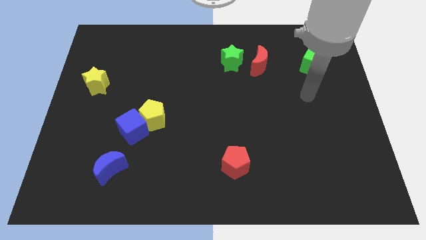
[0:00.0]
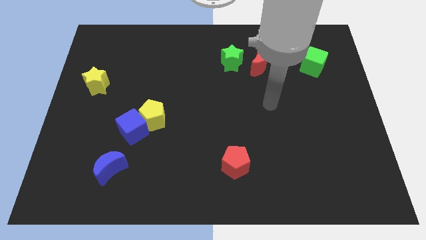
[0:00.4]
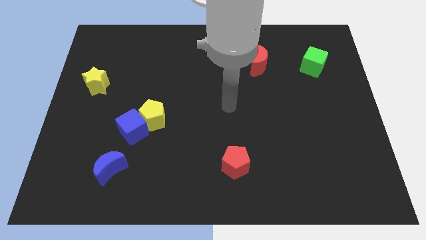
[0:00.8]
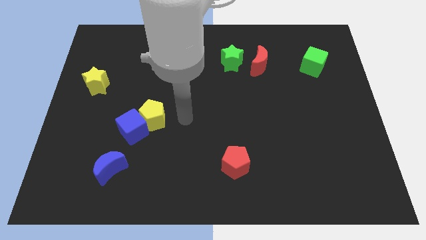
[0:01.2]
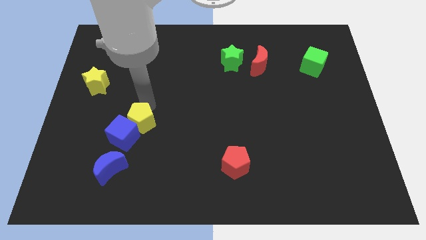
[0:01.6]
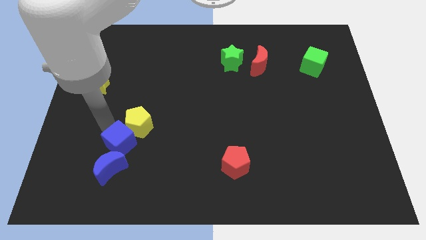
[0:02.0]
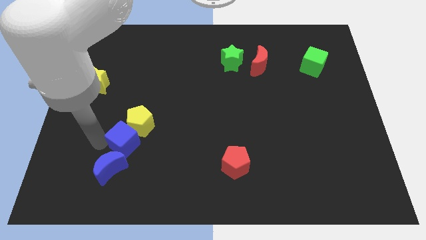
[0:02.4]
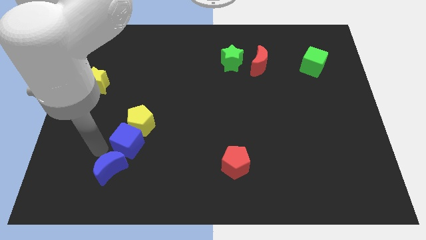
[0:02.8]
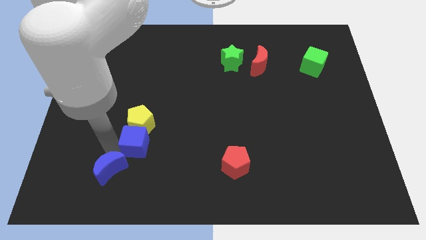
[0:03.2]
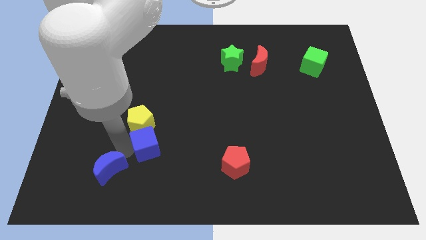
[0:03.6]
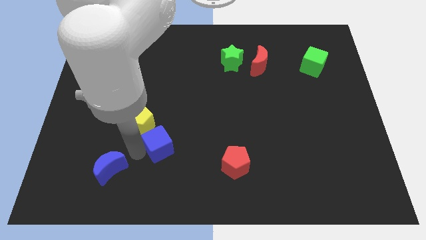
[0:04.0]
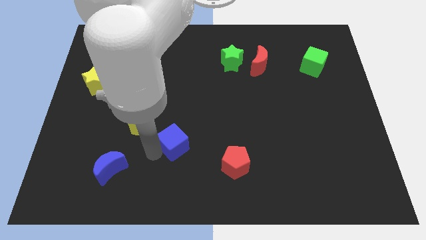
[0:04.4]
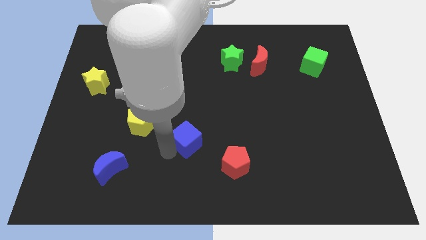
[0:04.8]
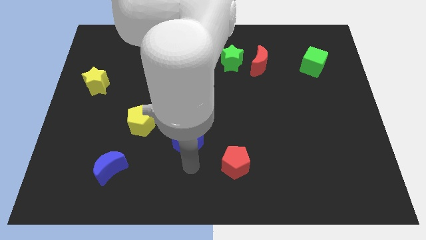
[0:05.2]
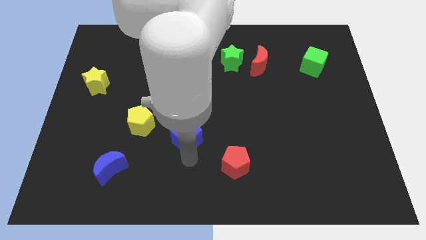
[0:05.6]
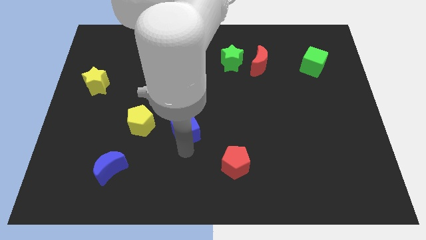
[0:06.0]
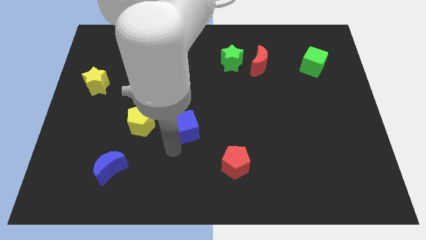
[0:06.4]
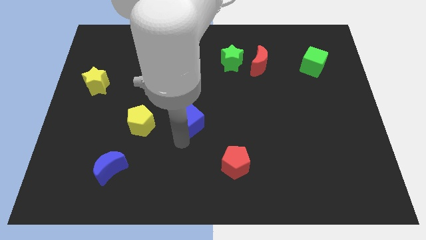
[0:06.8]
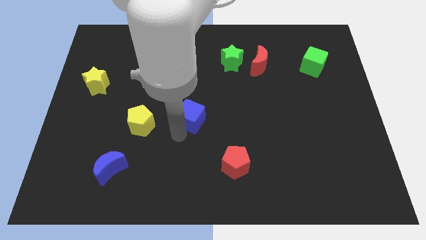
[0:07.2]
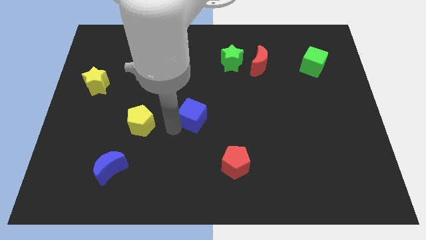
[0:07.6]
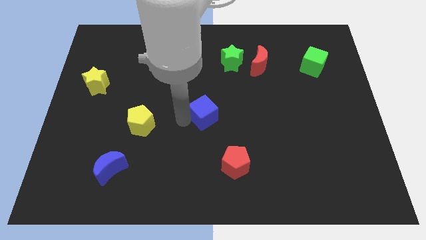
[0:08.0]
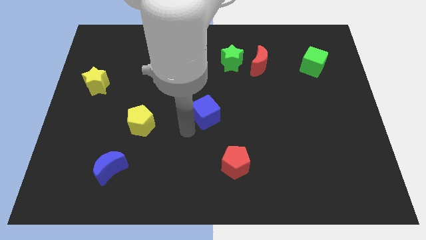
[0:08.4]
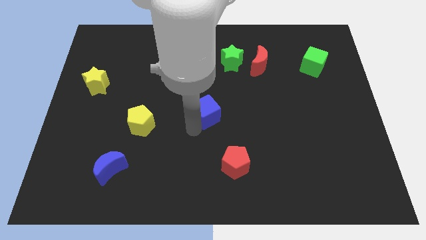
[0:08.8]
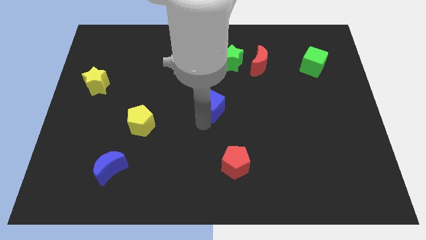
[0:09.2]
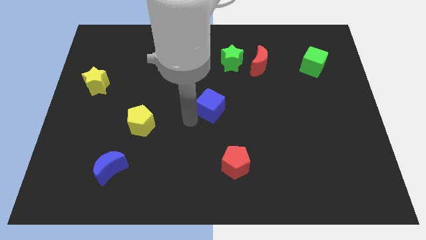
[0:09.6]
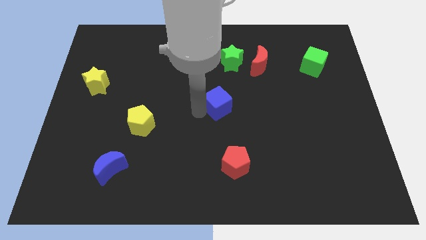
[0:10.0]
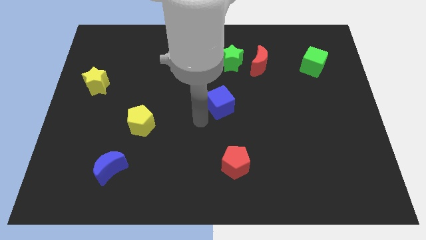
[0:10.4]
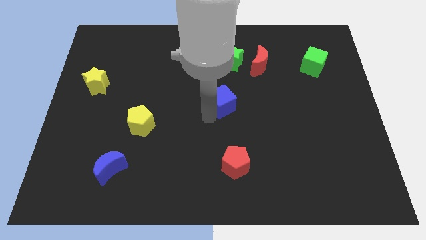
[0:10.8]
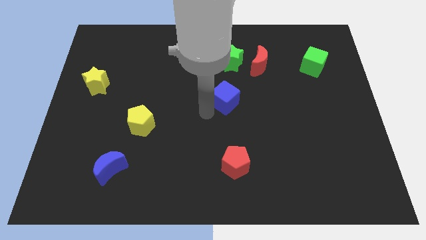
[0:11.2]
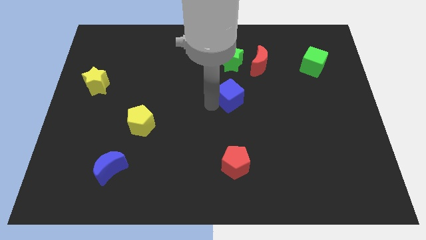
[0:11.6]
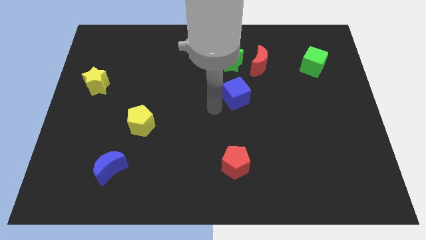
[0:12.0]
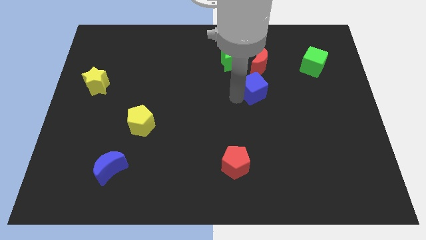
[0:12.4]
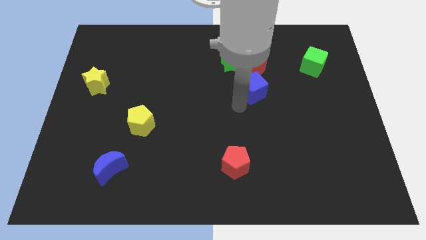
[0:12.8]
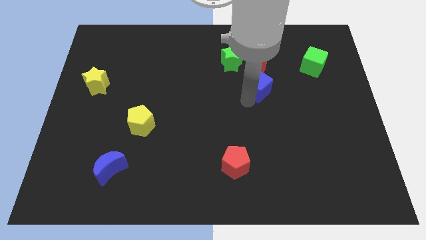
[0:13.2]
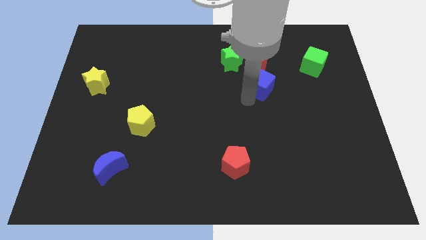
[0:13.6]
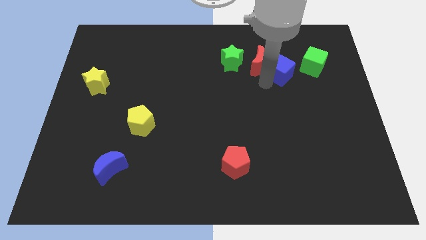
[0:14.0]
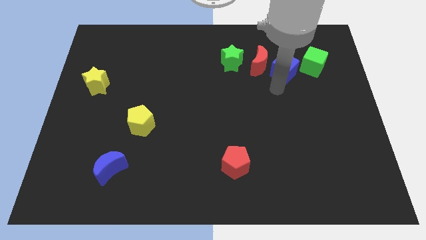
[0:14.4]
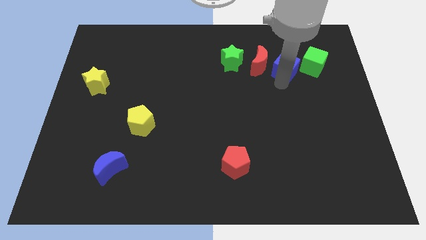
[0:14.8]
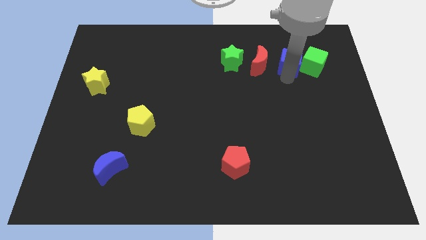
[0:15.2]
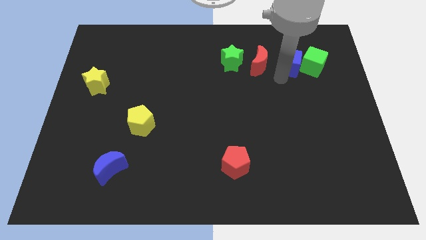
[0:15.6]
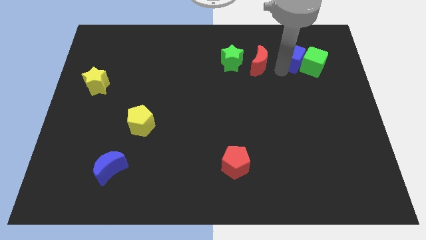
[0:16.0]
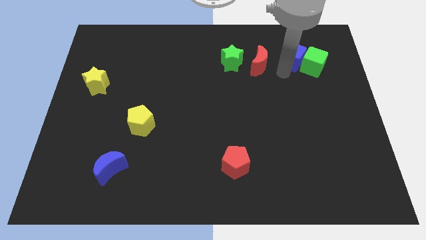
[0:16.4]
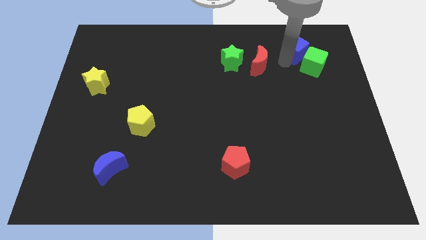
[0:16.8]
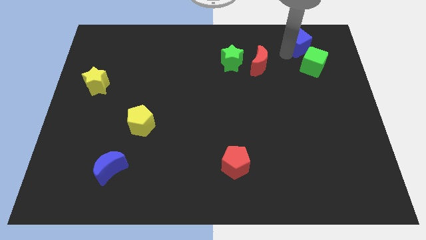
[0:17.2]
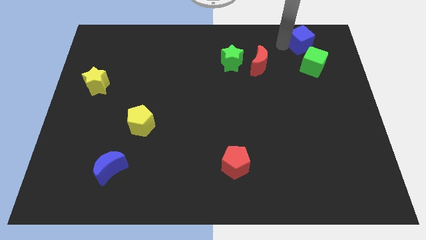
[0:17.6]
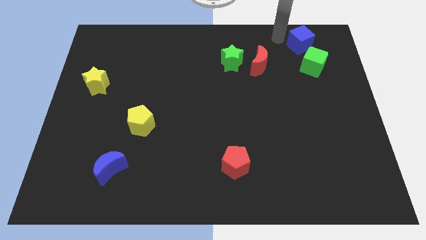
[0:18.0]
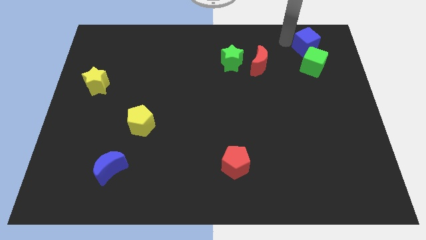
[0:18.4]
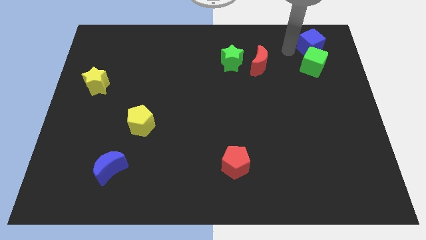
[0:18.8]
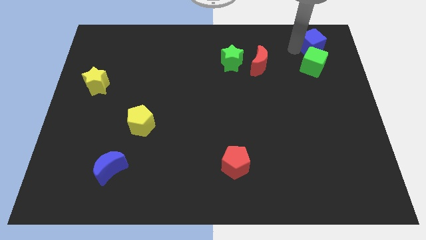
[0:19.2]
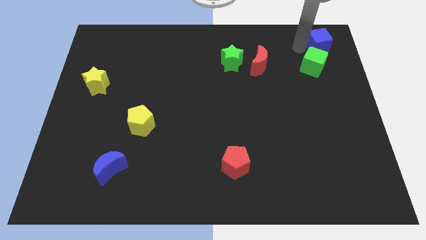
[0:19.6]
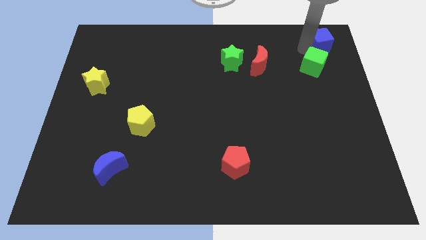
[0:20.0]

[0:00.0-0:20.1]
put the blue cube to the upper right corner

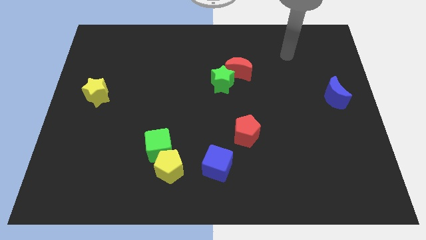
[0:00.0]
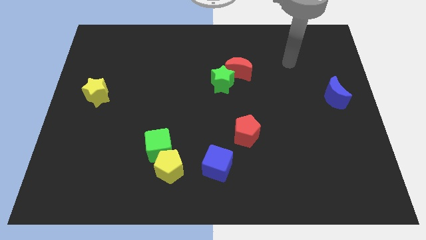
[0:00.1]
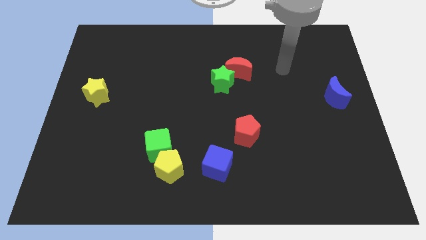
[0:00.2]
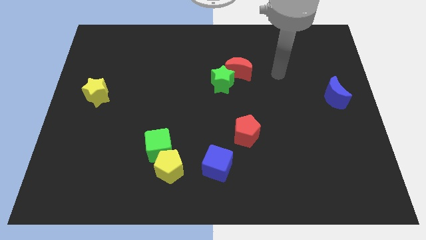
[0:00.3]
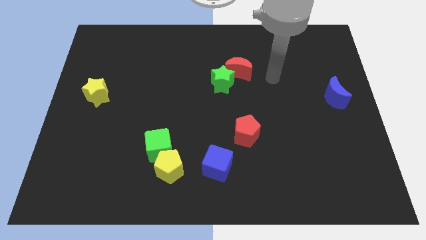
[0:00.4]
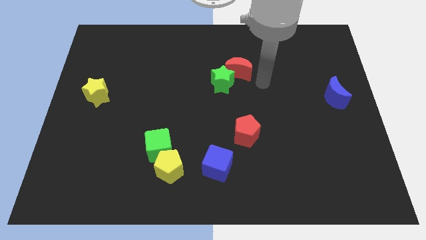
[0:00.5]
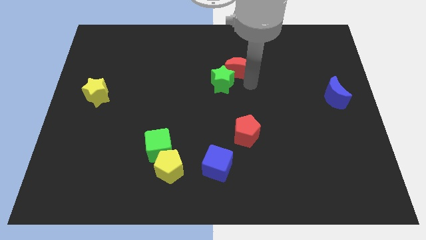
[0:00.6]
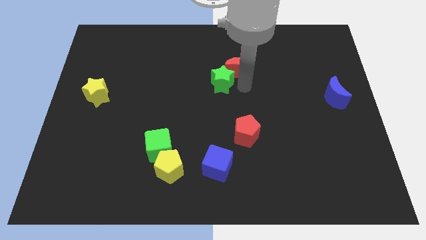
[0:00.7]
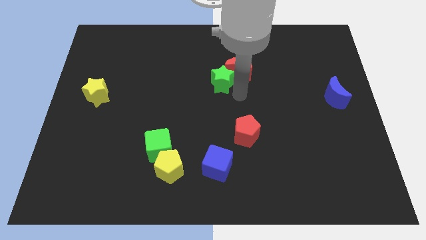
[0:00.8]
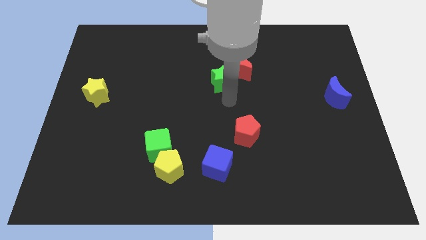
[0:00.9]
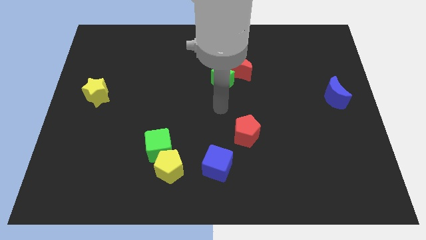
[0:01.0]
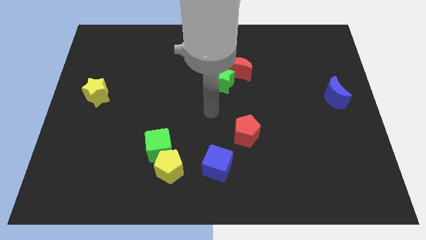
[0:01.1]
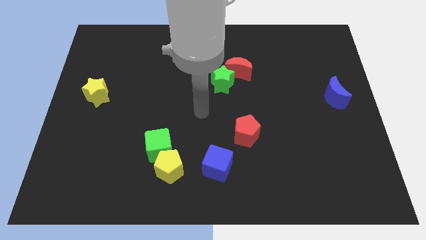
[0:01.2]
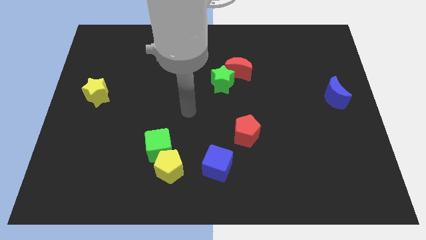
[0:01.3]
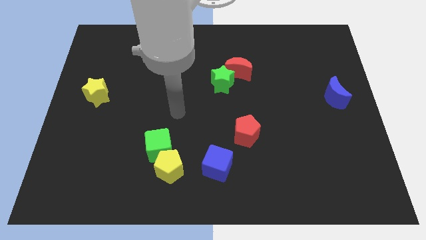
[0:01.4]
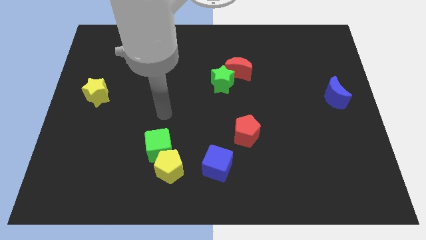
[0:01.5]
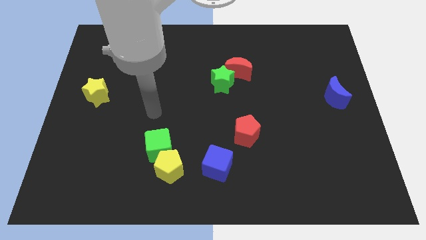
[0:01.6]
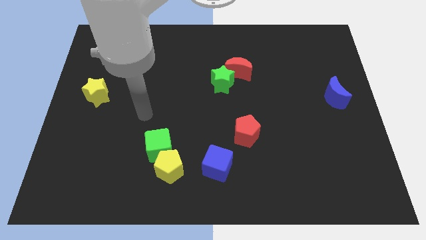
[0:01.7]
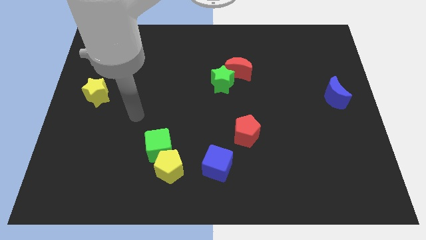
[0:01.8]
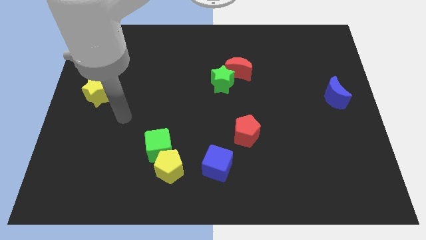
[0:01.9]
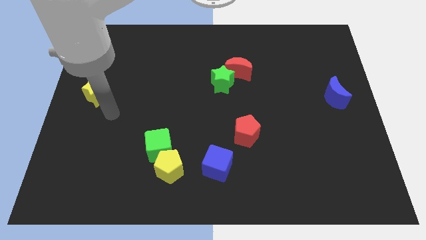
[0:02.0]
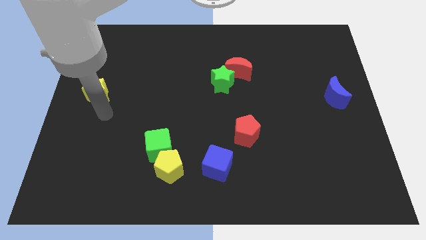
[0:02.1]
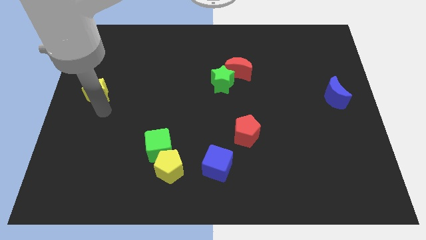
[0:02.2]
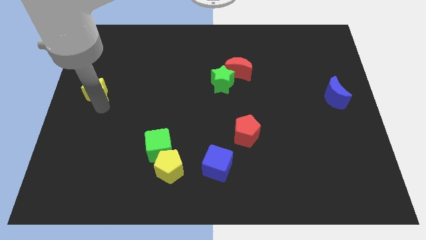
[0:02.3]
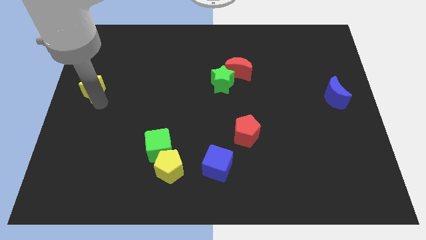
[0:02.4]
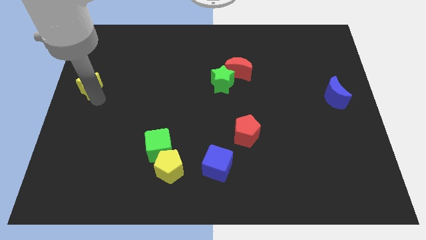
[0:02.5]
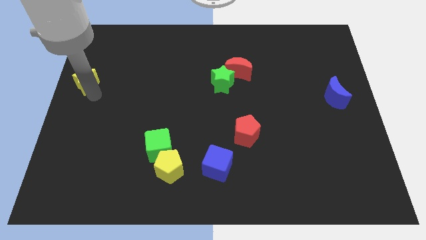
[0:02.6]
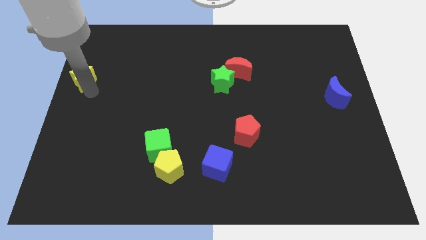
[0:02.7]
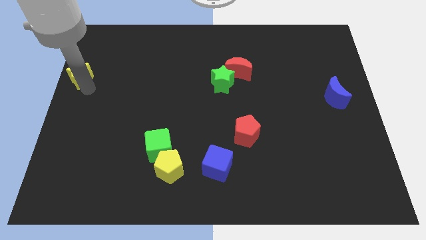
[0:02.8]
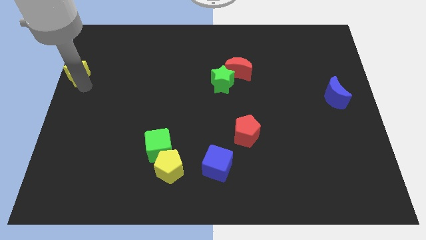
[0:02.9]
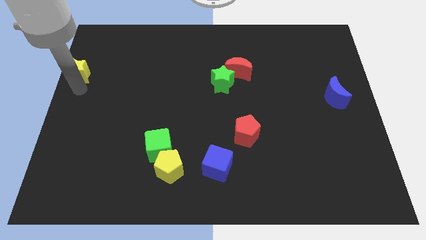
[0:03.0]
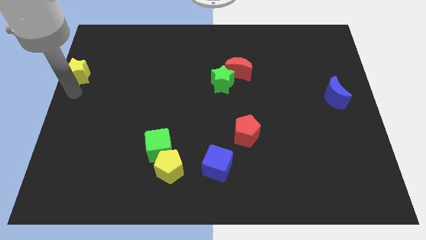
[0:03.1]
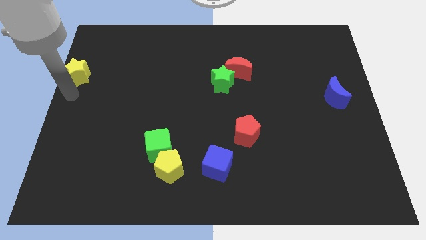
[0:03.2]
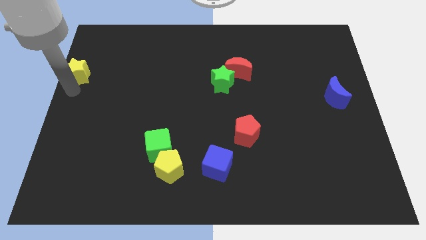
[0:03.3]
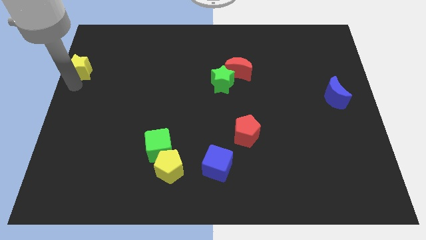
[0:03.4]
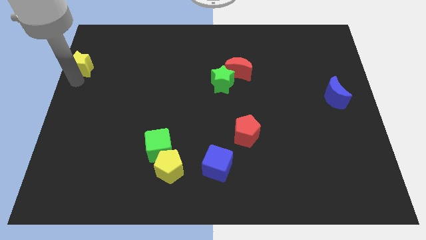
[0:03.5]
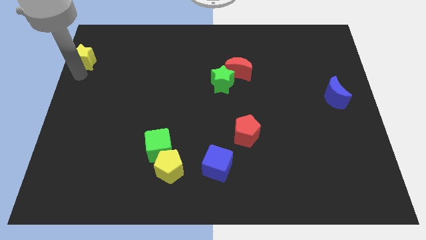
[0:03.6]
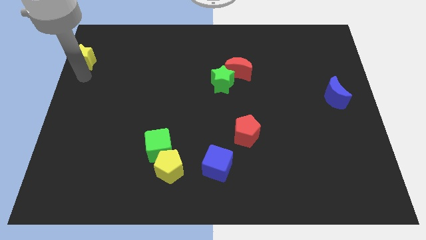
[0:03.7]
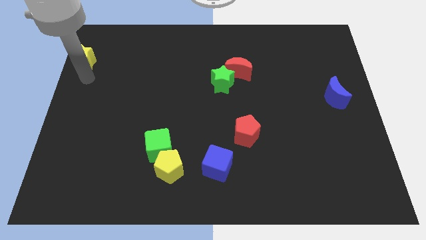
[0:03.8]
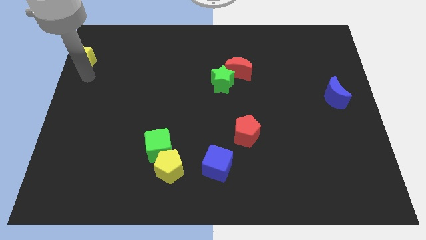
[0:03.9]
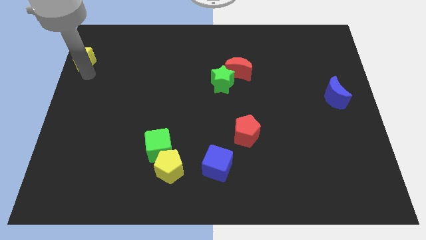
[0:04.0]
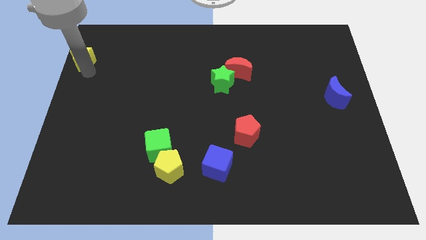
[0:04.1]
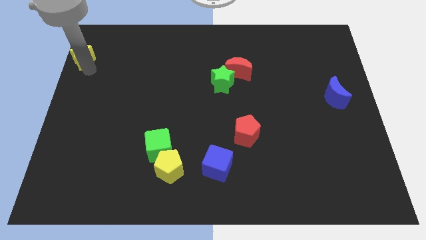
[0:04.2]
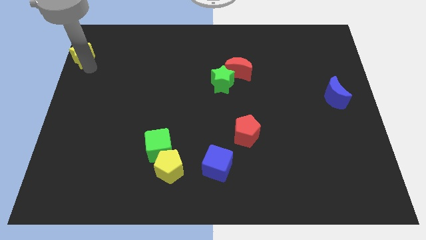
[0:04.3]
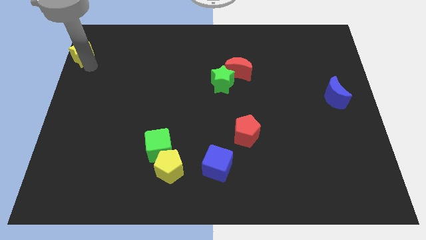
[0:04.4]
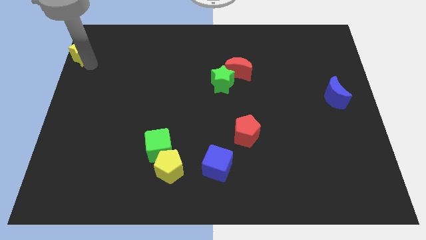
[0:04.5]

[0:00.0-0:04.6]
slide the yellow star to the upper left corner
